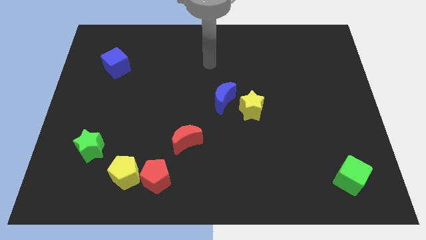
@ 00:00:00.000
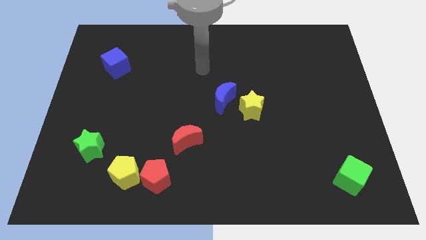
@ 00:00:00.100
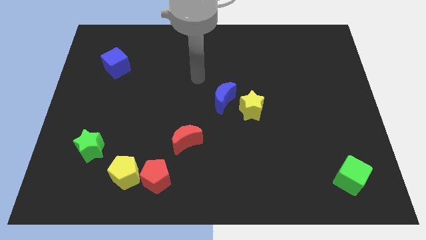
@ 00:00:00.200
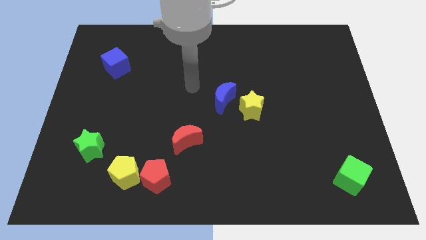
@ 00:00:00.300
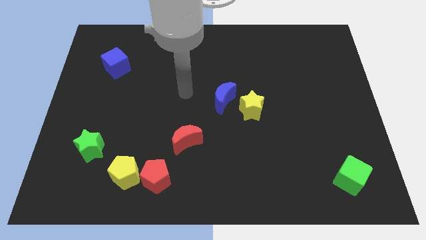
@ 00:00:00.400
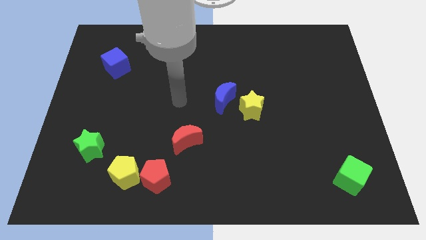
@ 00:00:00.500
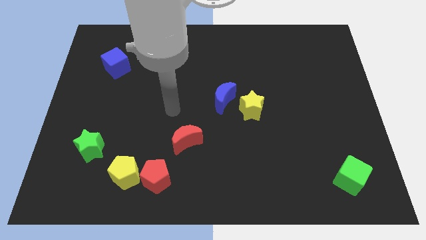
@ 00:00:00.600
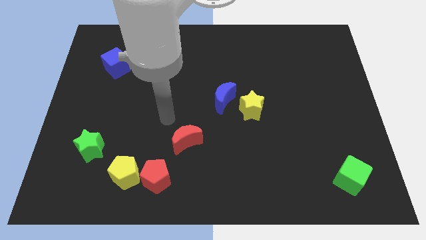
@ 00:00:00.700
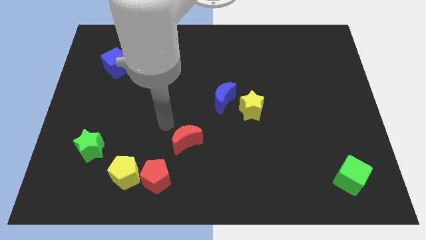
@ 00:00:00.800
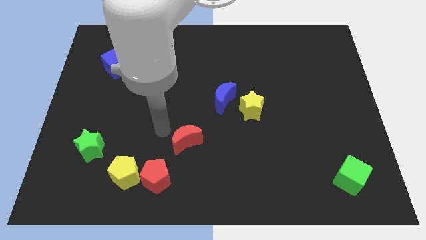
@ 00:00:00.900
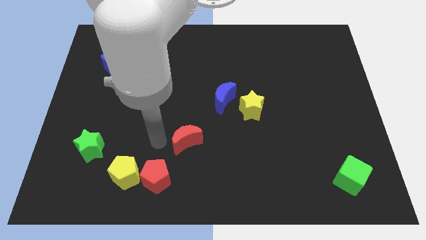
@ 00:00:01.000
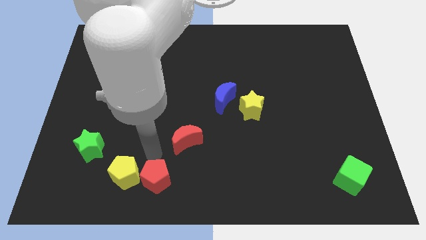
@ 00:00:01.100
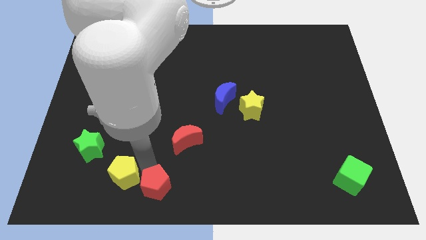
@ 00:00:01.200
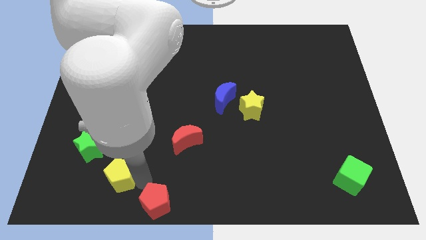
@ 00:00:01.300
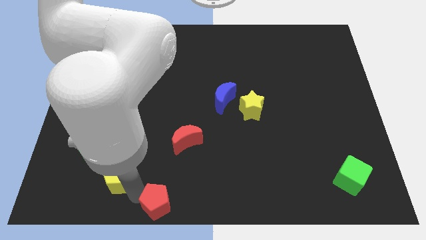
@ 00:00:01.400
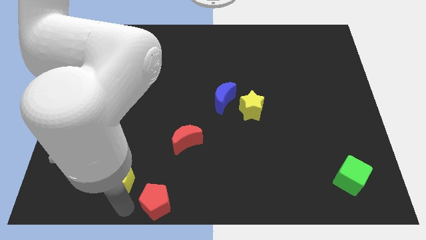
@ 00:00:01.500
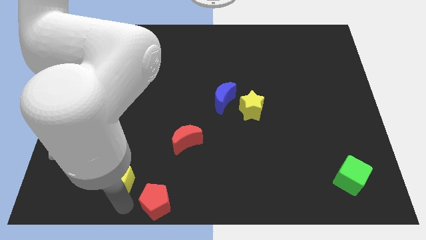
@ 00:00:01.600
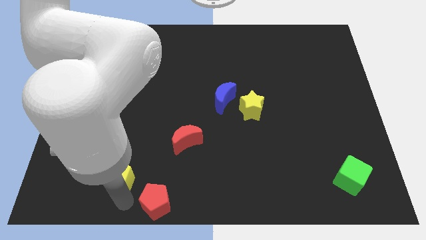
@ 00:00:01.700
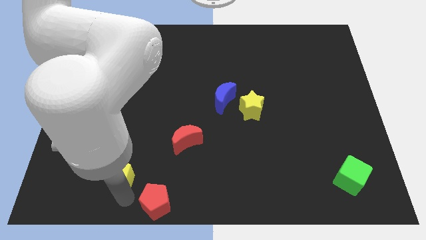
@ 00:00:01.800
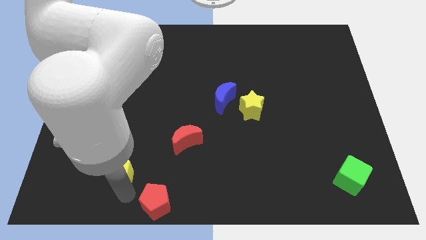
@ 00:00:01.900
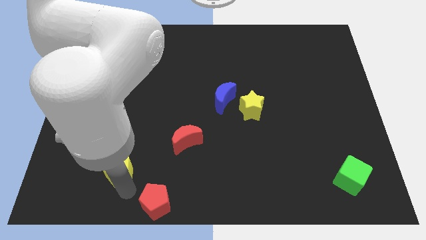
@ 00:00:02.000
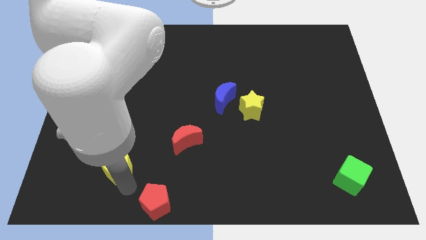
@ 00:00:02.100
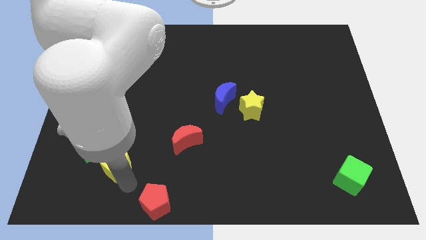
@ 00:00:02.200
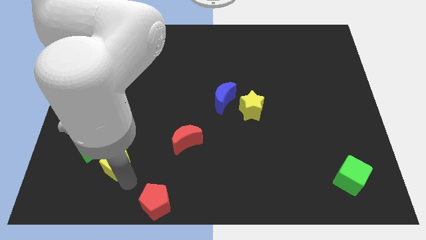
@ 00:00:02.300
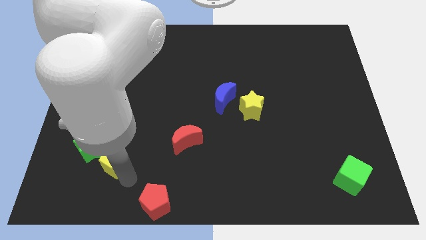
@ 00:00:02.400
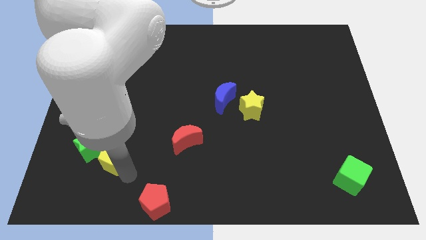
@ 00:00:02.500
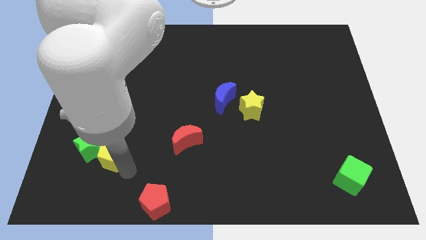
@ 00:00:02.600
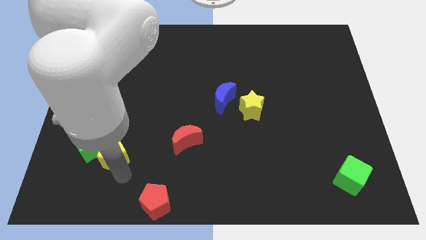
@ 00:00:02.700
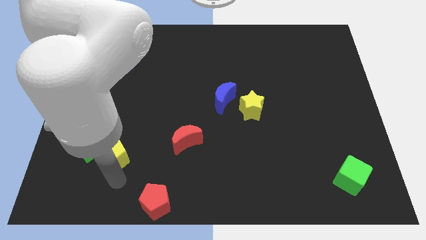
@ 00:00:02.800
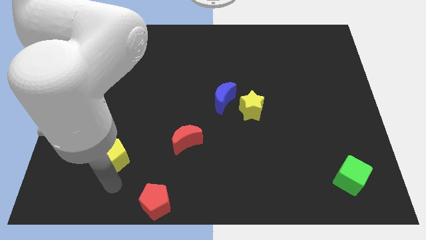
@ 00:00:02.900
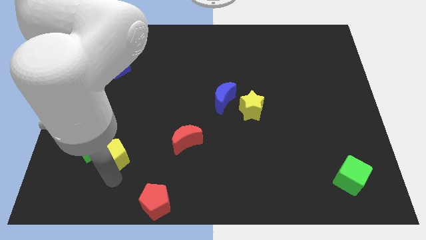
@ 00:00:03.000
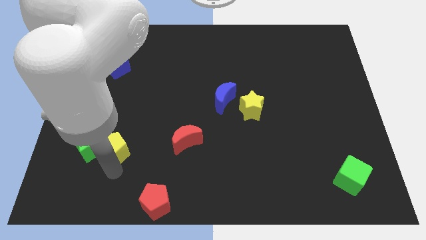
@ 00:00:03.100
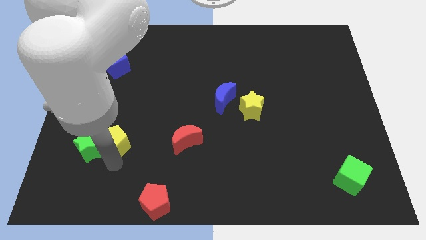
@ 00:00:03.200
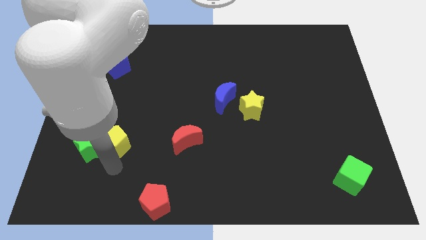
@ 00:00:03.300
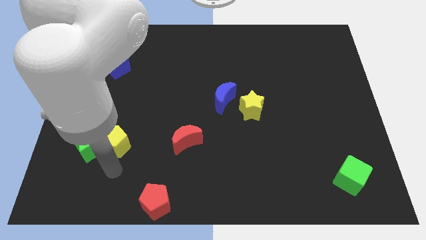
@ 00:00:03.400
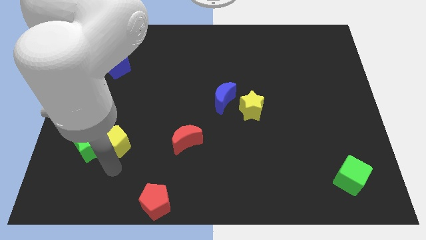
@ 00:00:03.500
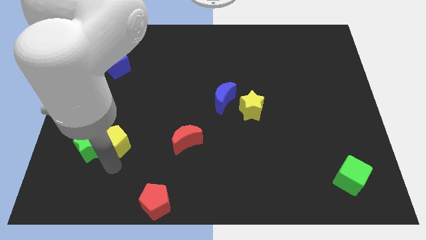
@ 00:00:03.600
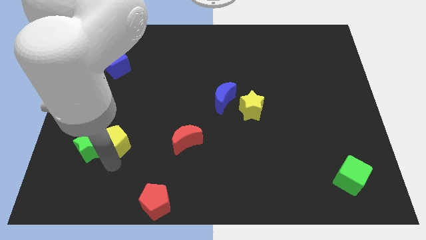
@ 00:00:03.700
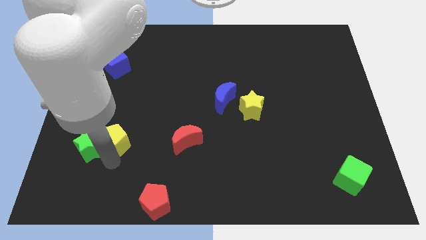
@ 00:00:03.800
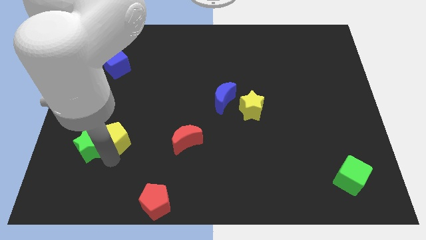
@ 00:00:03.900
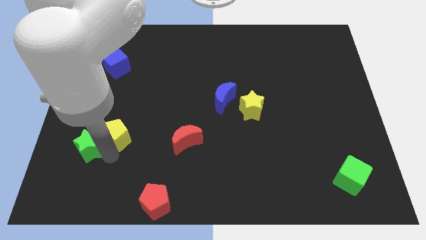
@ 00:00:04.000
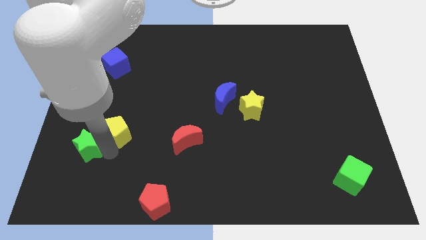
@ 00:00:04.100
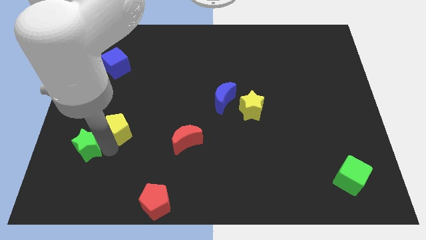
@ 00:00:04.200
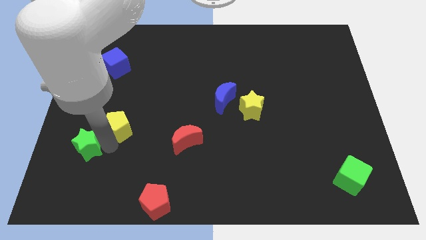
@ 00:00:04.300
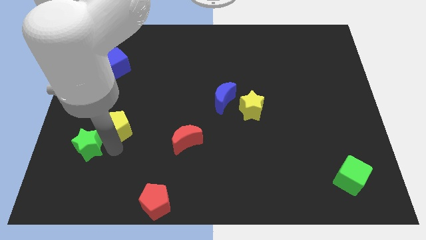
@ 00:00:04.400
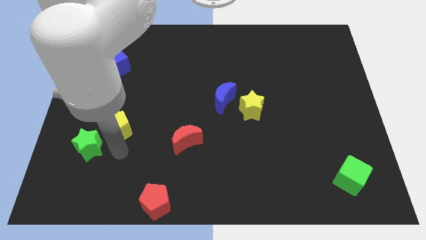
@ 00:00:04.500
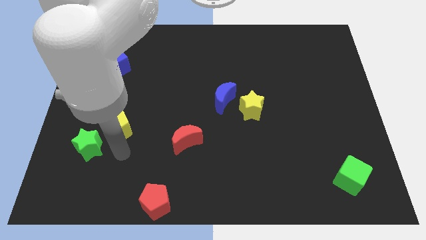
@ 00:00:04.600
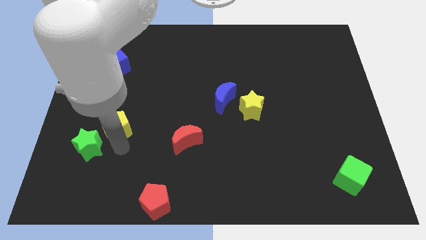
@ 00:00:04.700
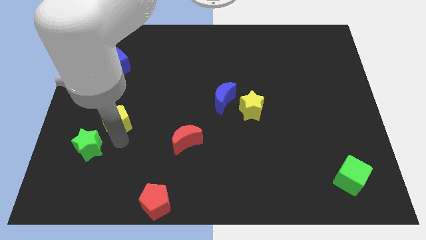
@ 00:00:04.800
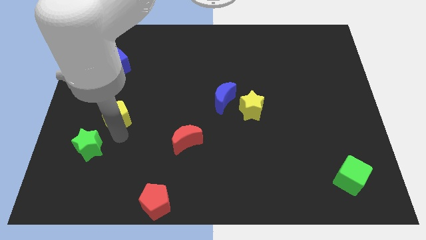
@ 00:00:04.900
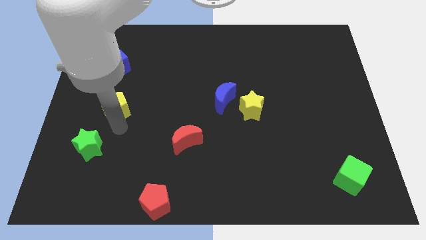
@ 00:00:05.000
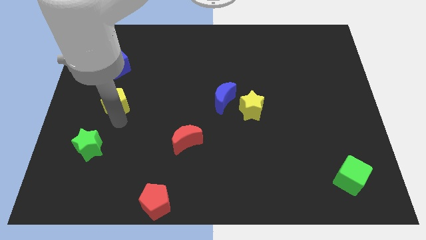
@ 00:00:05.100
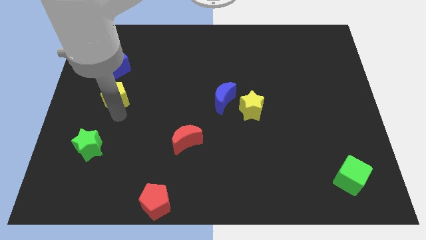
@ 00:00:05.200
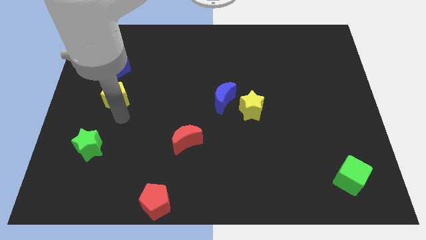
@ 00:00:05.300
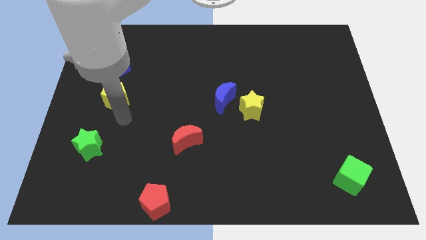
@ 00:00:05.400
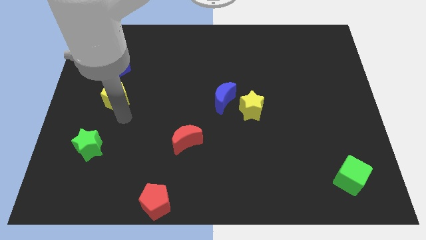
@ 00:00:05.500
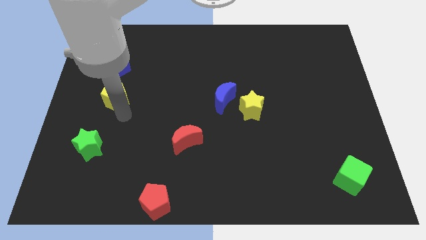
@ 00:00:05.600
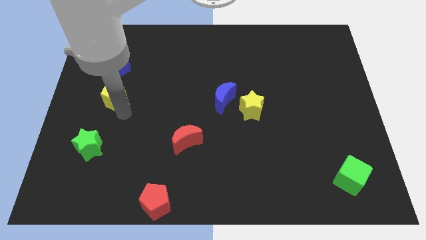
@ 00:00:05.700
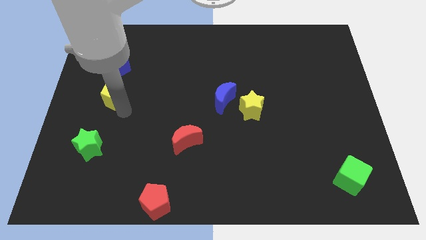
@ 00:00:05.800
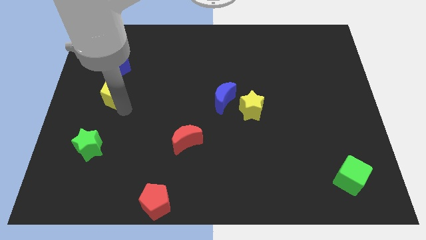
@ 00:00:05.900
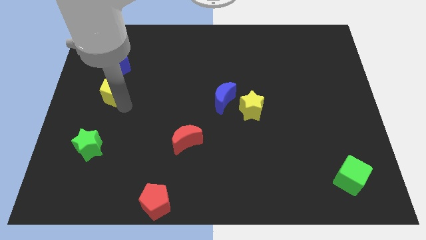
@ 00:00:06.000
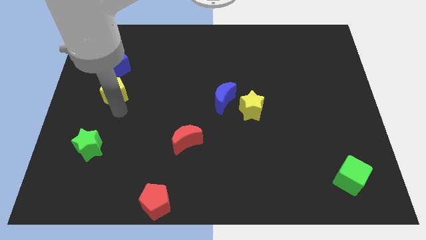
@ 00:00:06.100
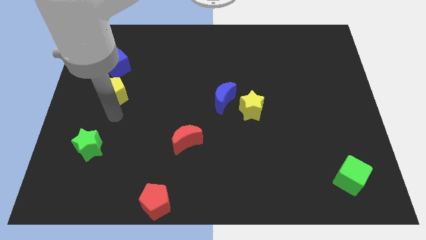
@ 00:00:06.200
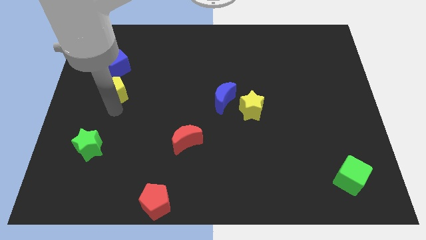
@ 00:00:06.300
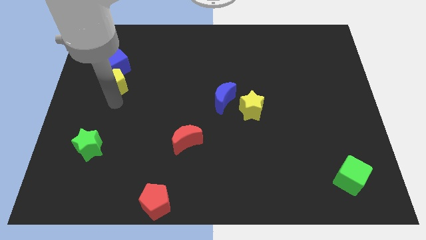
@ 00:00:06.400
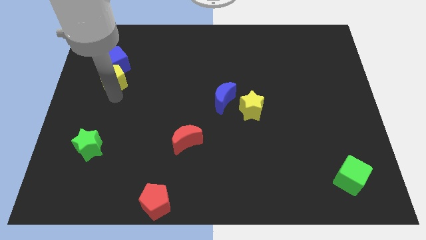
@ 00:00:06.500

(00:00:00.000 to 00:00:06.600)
push the yellow pentagon towards the blue cube

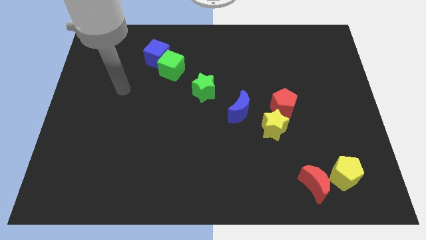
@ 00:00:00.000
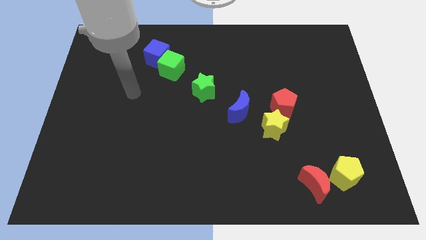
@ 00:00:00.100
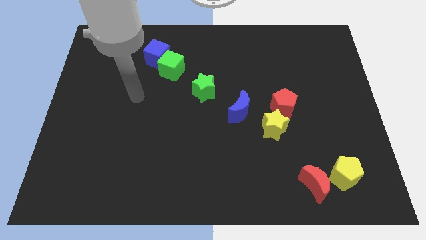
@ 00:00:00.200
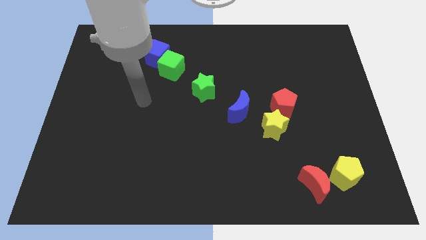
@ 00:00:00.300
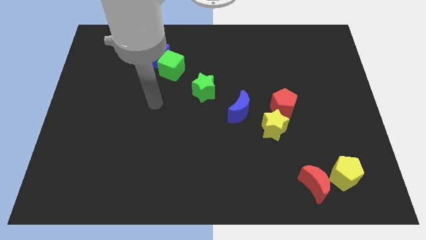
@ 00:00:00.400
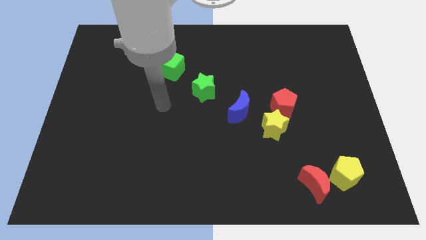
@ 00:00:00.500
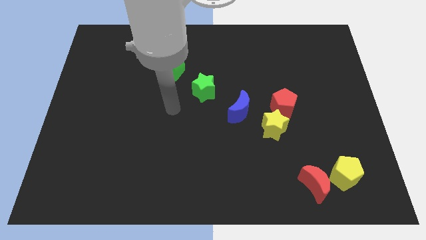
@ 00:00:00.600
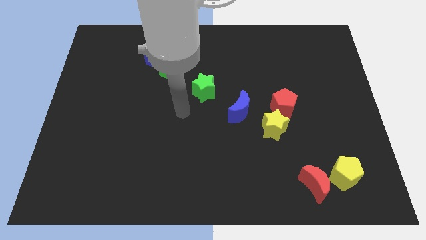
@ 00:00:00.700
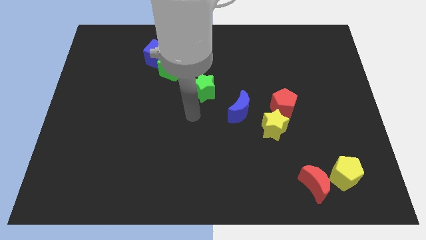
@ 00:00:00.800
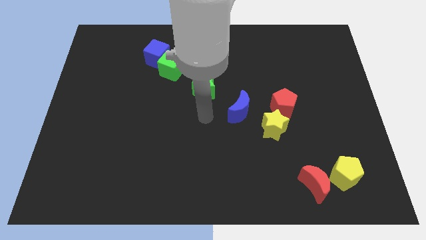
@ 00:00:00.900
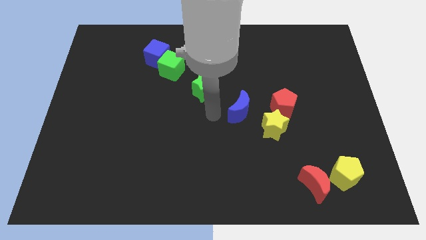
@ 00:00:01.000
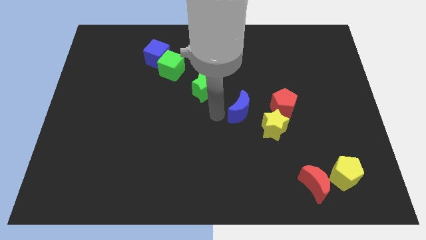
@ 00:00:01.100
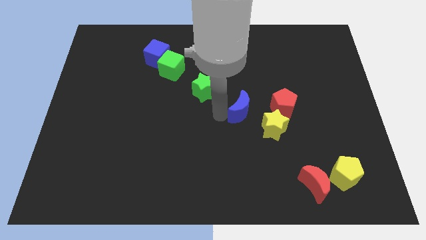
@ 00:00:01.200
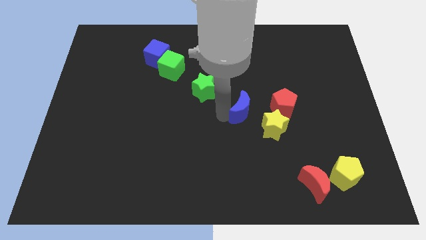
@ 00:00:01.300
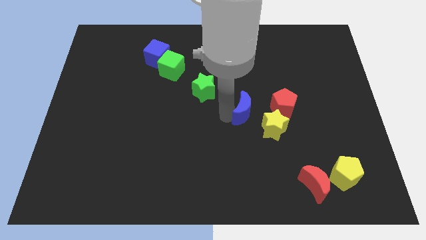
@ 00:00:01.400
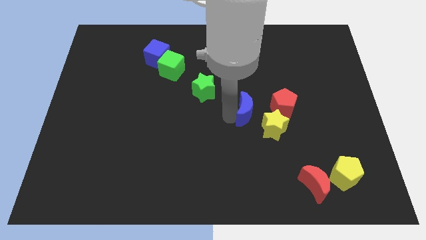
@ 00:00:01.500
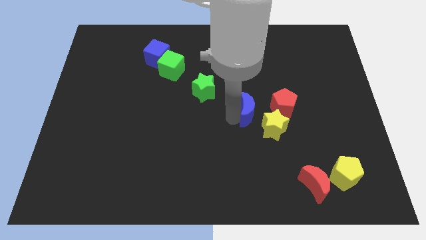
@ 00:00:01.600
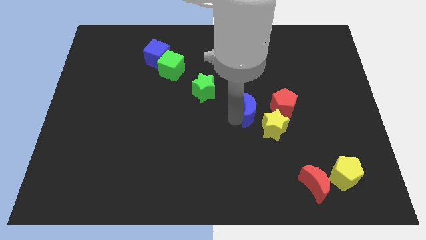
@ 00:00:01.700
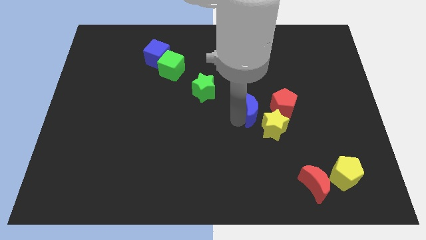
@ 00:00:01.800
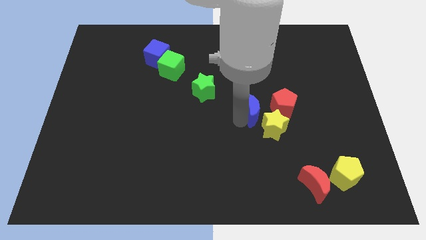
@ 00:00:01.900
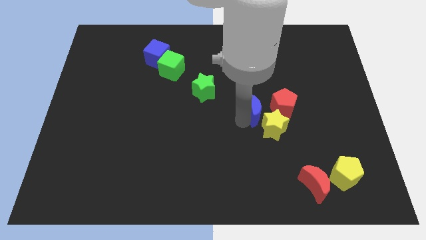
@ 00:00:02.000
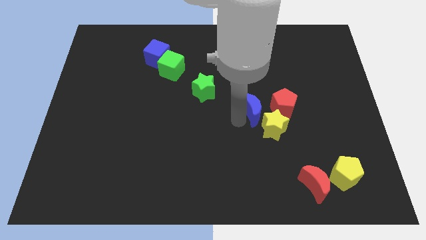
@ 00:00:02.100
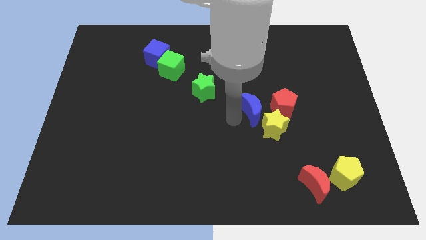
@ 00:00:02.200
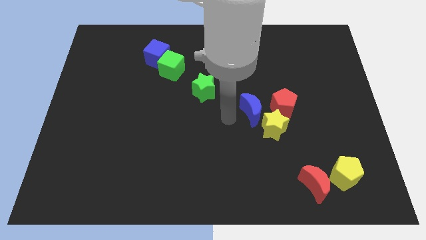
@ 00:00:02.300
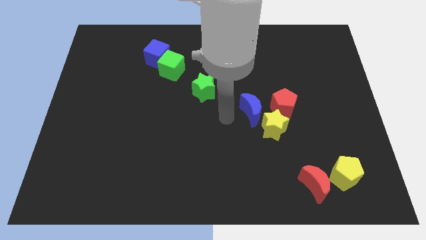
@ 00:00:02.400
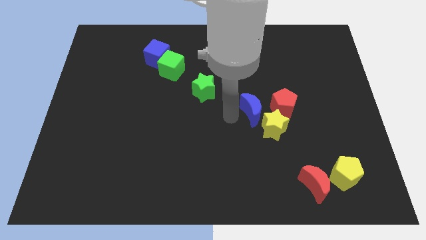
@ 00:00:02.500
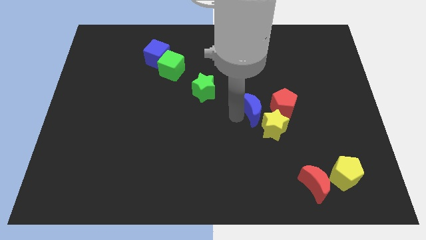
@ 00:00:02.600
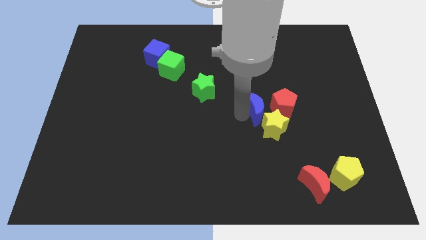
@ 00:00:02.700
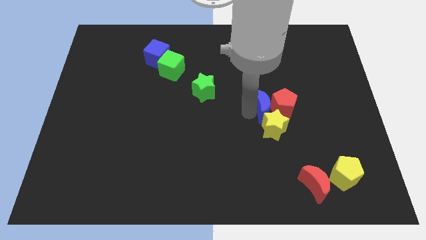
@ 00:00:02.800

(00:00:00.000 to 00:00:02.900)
put the blue moon to the red pentagon
